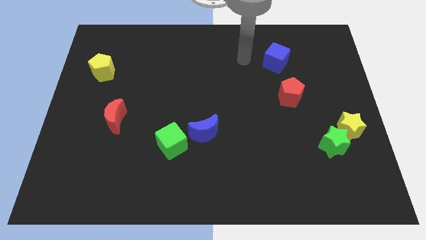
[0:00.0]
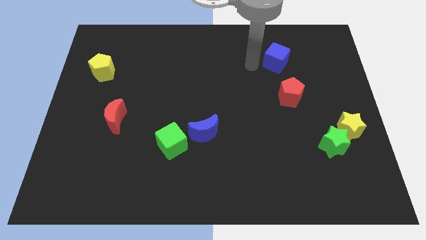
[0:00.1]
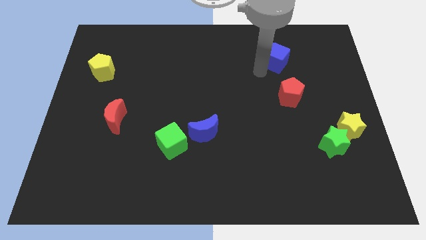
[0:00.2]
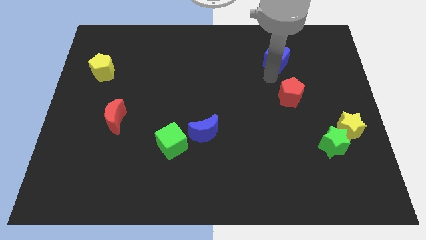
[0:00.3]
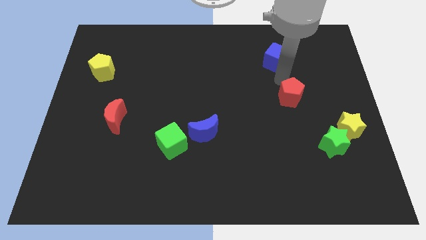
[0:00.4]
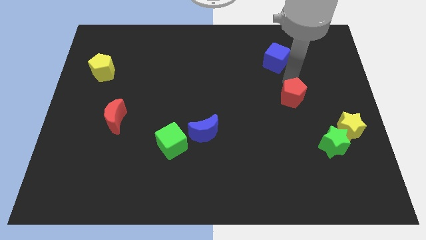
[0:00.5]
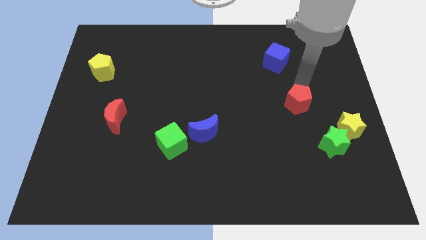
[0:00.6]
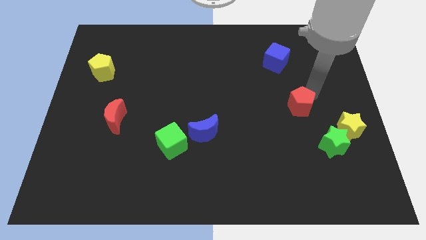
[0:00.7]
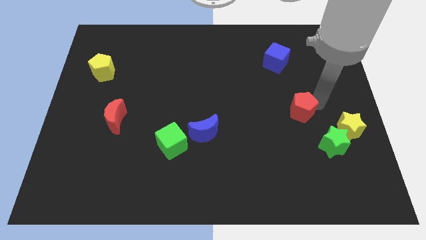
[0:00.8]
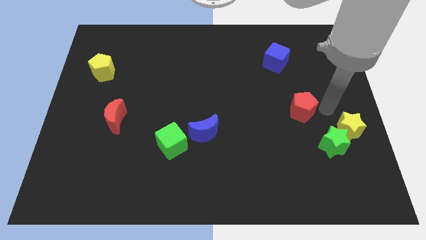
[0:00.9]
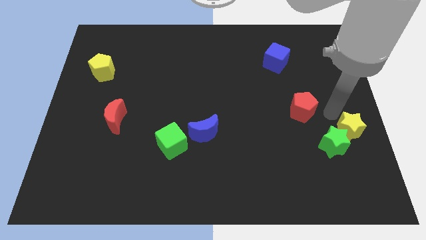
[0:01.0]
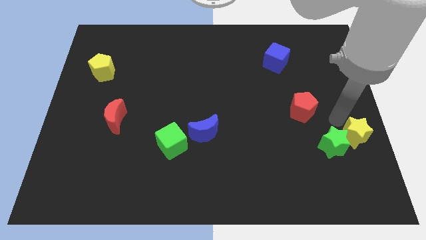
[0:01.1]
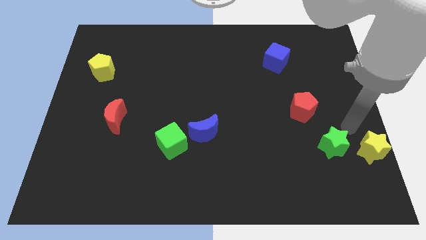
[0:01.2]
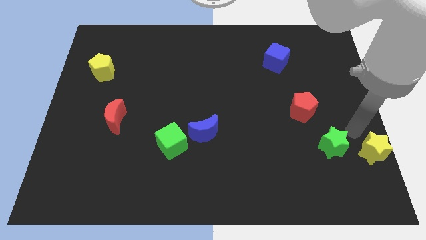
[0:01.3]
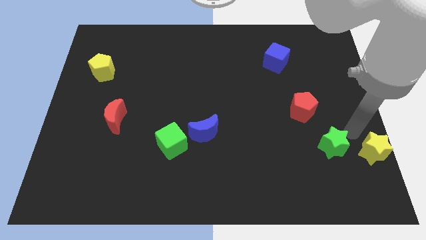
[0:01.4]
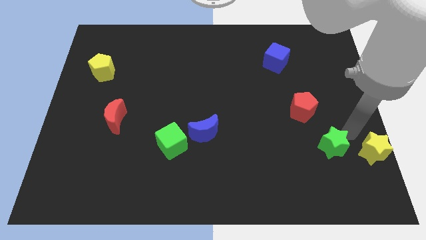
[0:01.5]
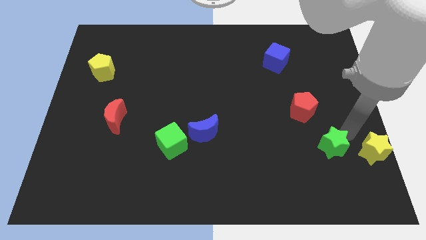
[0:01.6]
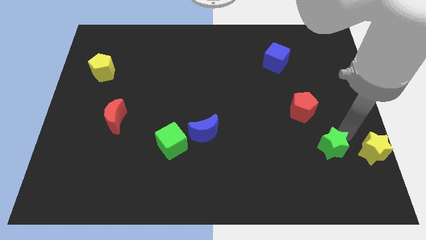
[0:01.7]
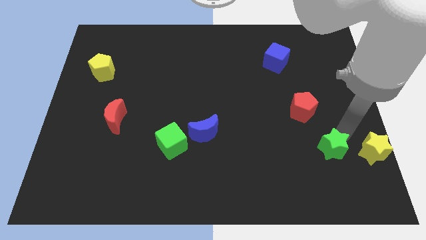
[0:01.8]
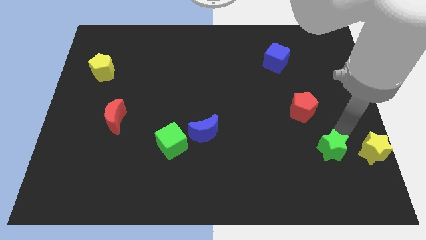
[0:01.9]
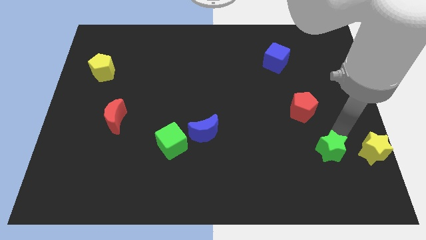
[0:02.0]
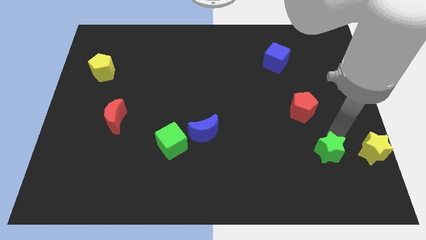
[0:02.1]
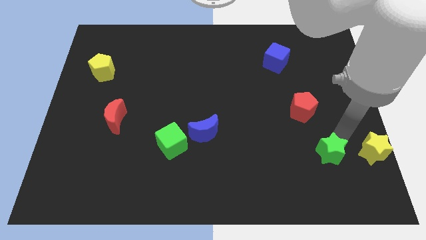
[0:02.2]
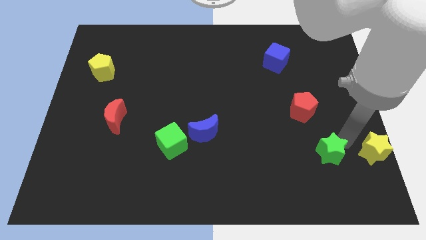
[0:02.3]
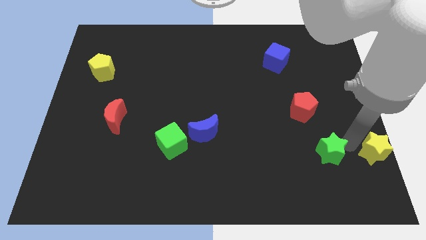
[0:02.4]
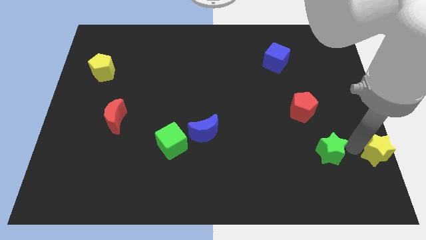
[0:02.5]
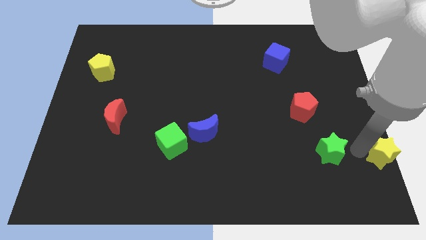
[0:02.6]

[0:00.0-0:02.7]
separate the green star from the yellow star

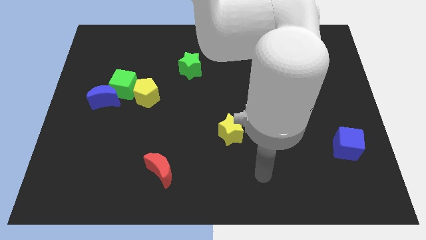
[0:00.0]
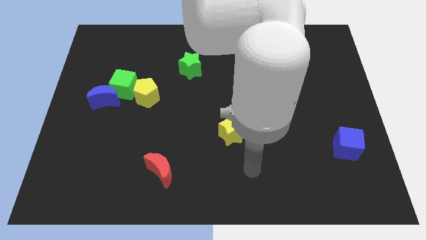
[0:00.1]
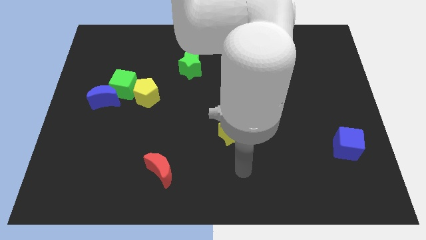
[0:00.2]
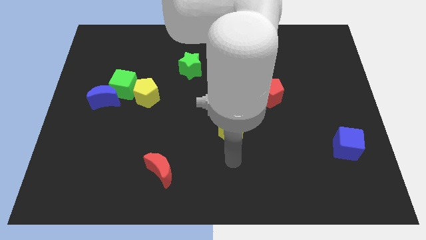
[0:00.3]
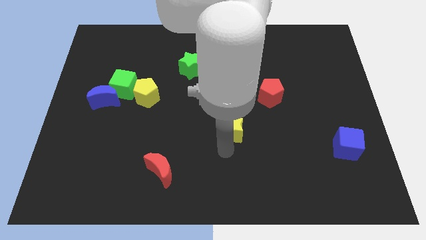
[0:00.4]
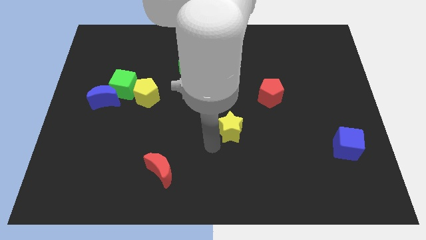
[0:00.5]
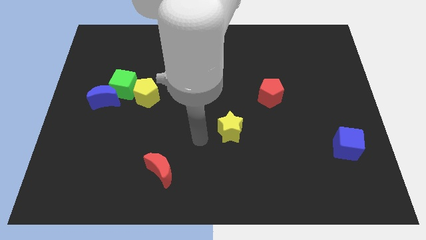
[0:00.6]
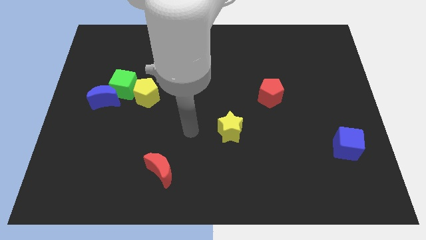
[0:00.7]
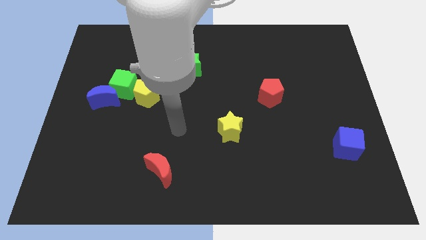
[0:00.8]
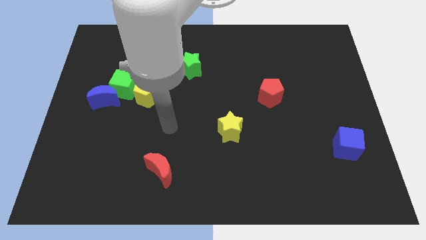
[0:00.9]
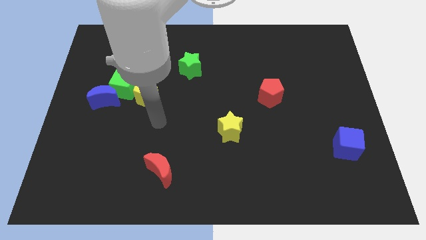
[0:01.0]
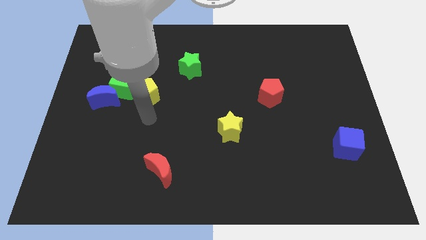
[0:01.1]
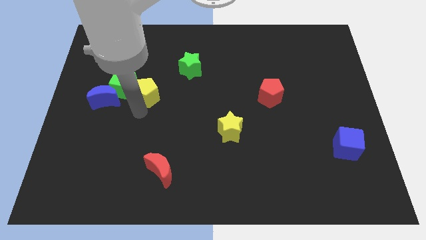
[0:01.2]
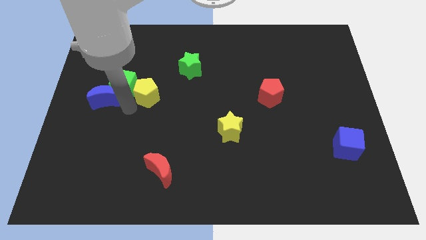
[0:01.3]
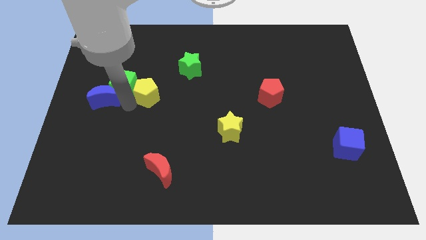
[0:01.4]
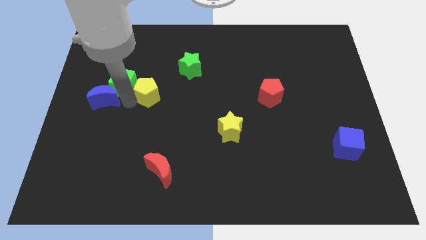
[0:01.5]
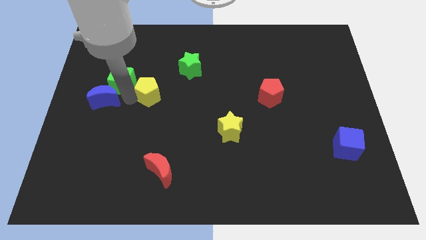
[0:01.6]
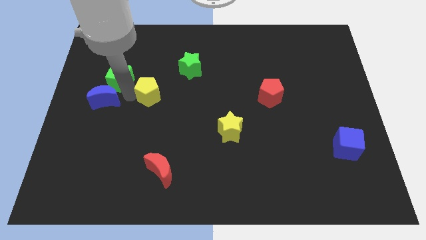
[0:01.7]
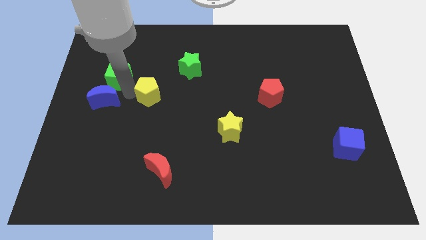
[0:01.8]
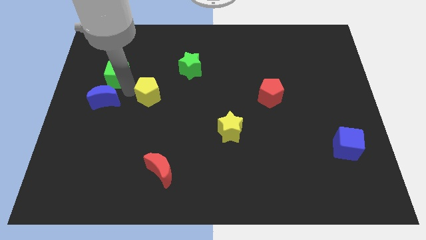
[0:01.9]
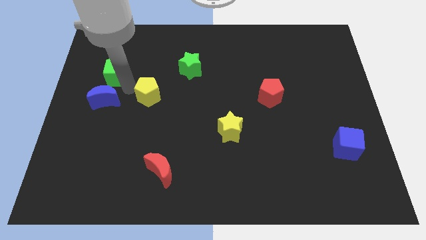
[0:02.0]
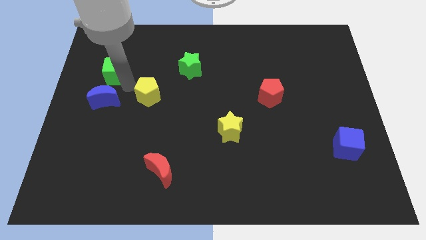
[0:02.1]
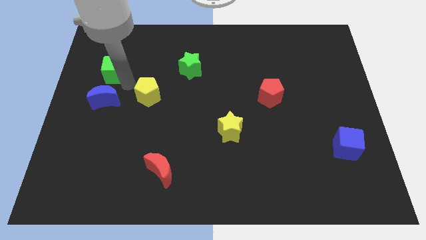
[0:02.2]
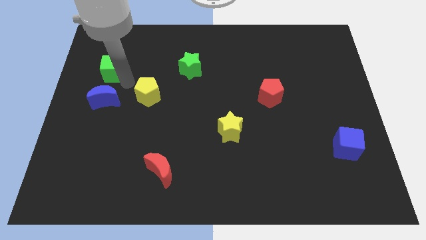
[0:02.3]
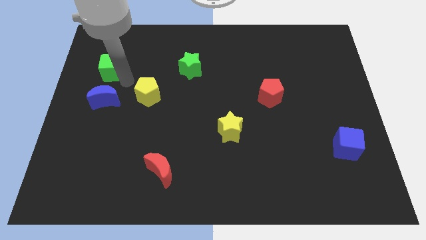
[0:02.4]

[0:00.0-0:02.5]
move the green cube away from the blue moon and yellow pentagon

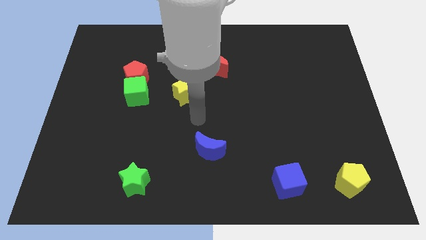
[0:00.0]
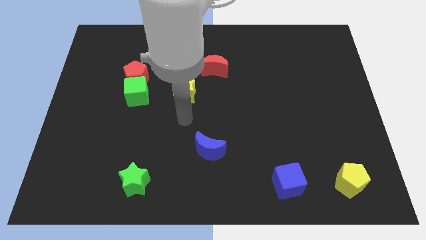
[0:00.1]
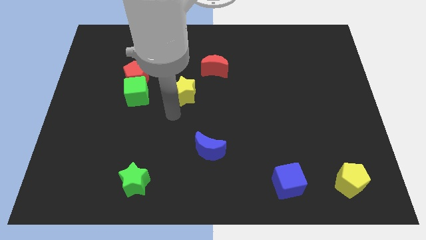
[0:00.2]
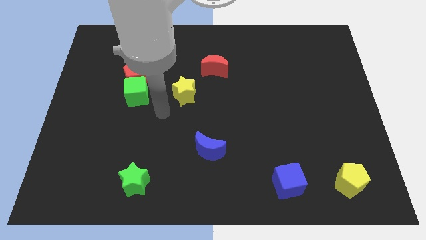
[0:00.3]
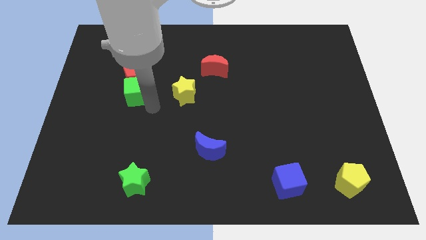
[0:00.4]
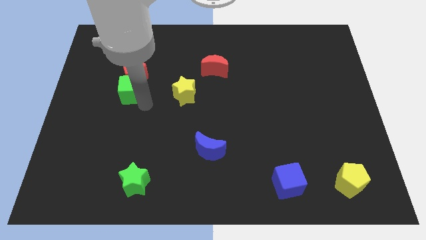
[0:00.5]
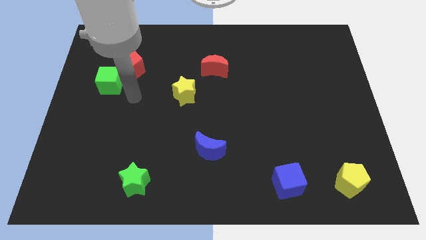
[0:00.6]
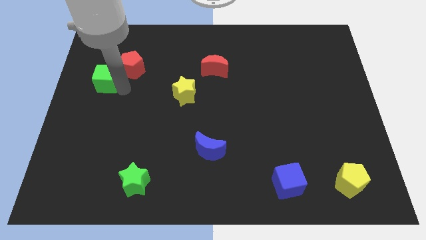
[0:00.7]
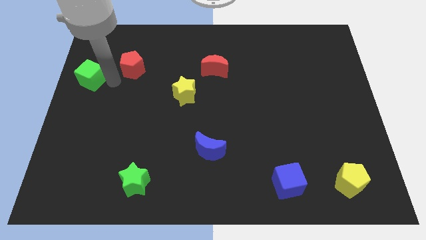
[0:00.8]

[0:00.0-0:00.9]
pull the red pentagon apart from the green cube

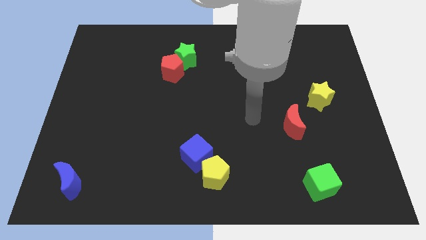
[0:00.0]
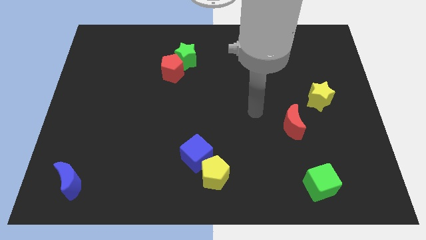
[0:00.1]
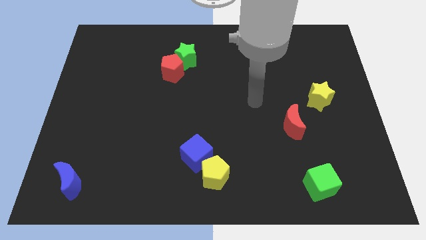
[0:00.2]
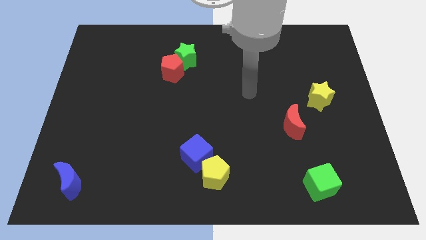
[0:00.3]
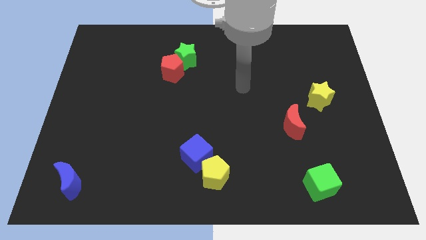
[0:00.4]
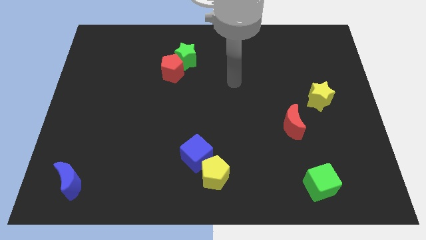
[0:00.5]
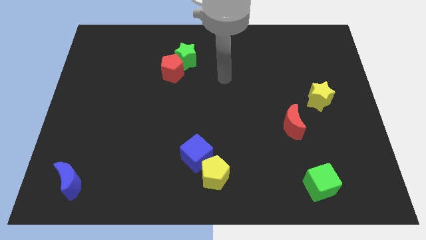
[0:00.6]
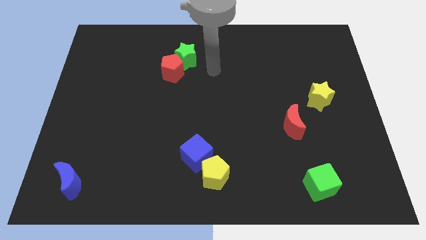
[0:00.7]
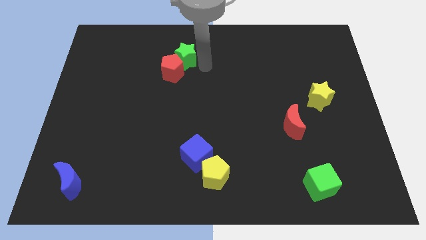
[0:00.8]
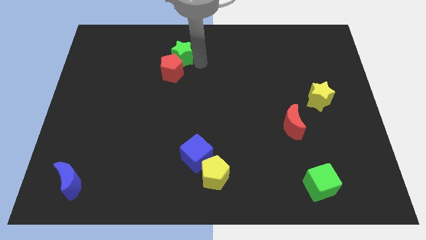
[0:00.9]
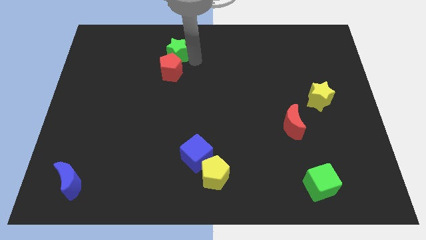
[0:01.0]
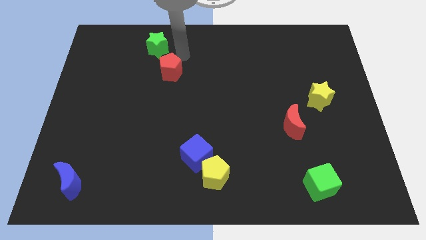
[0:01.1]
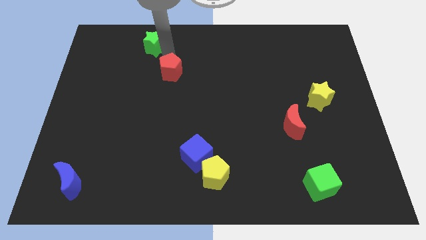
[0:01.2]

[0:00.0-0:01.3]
pull the red pentagon apart from the green star

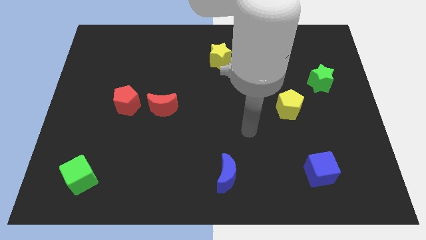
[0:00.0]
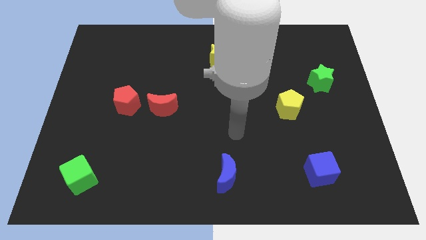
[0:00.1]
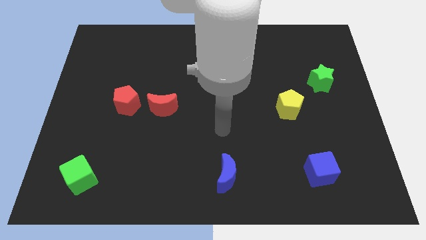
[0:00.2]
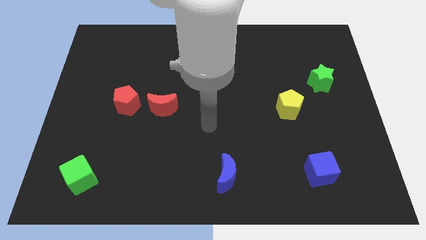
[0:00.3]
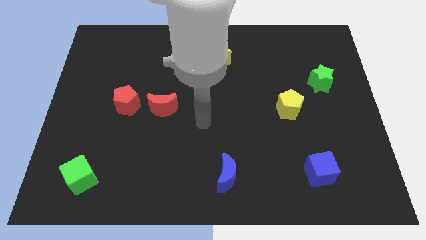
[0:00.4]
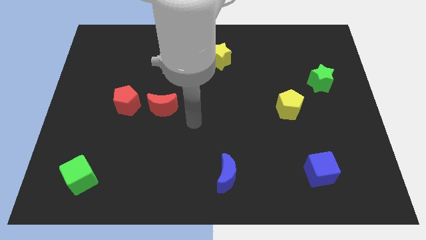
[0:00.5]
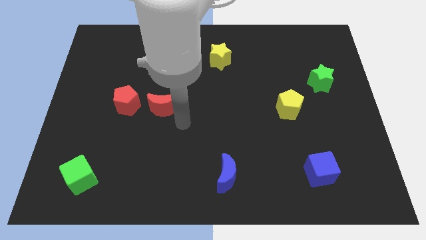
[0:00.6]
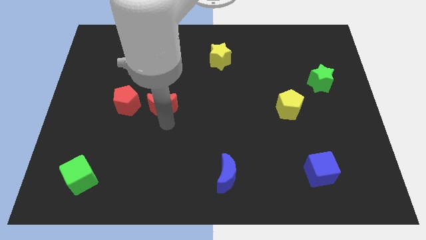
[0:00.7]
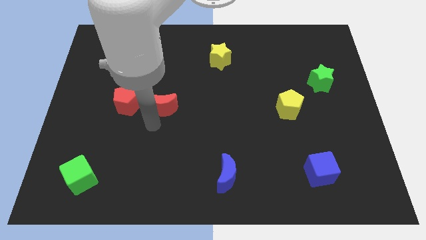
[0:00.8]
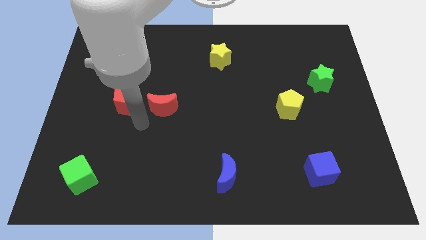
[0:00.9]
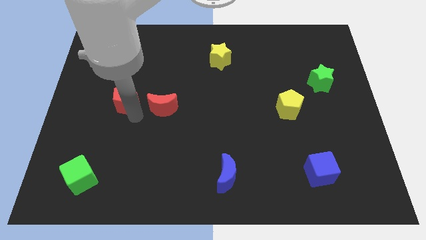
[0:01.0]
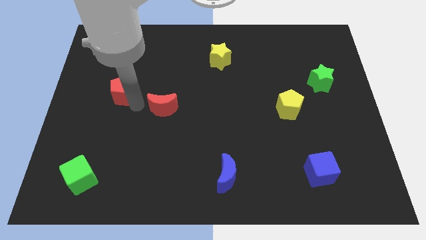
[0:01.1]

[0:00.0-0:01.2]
move the red moon away from the red pentagon

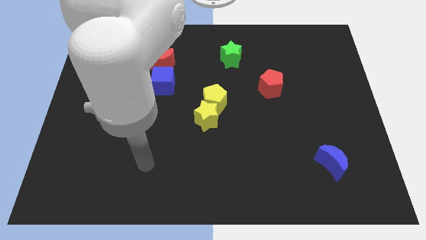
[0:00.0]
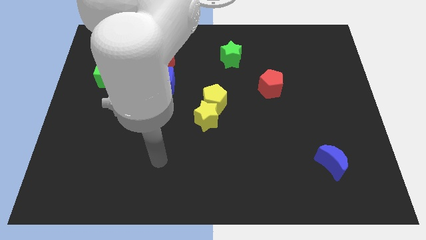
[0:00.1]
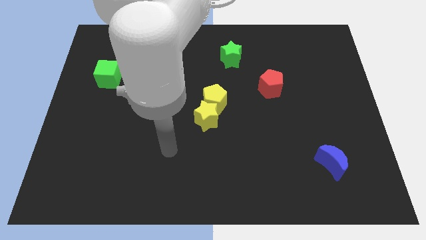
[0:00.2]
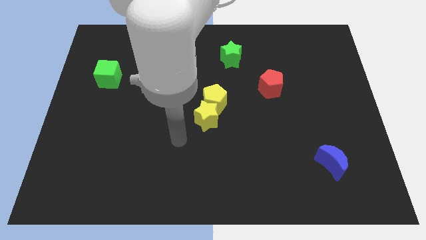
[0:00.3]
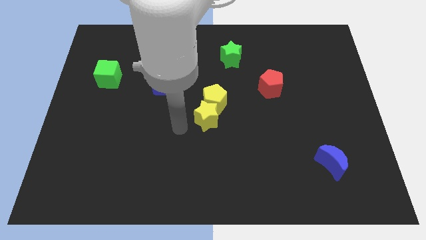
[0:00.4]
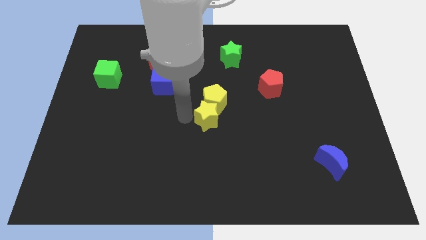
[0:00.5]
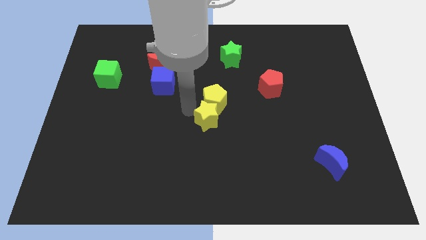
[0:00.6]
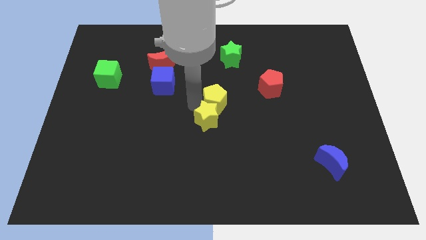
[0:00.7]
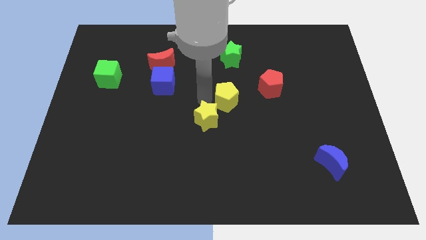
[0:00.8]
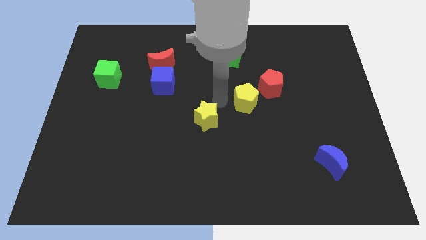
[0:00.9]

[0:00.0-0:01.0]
move the yellow star away from the yellow pentagon
